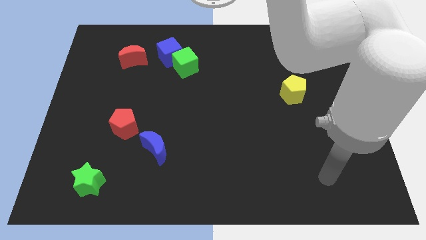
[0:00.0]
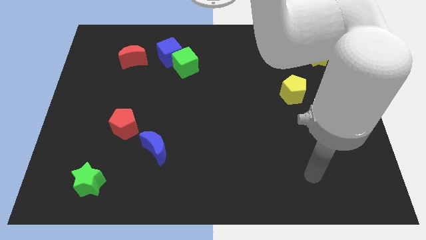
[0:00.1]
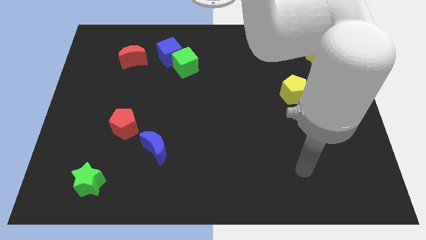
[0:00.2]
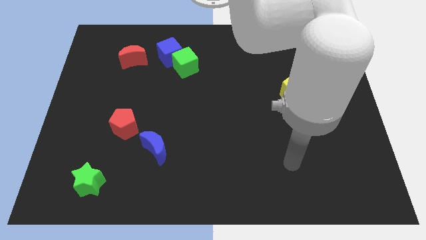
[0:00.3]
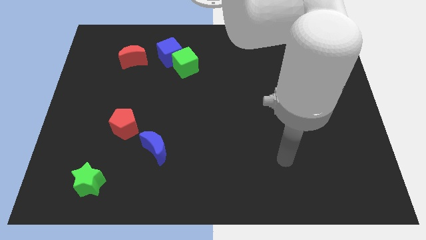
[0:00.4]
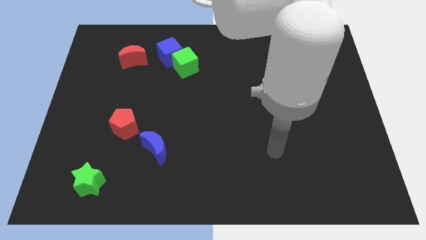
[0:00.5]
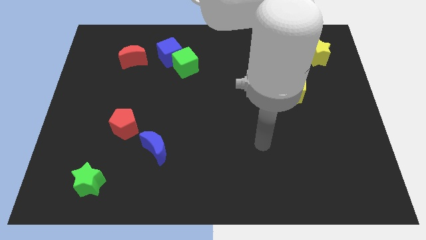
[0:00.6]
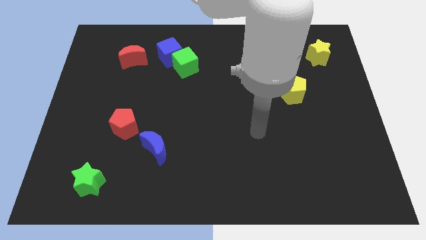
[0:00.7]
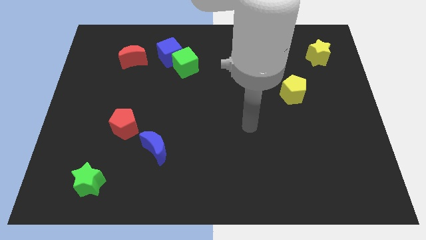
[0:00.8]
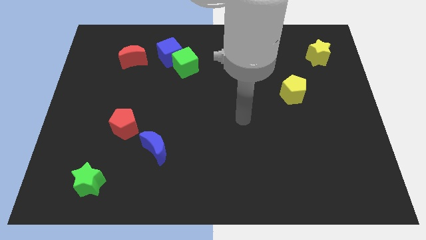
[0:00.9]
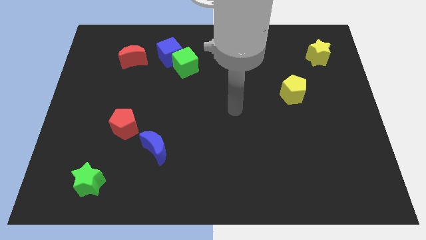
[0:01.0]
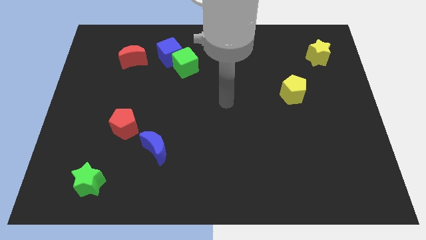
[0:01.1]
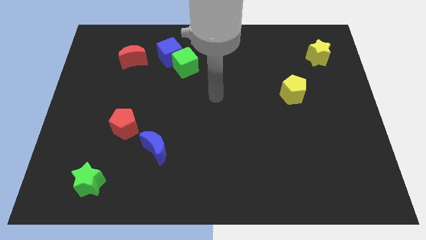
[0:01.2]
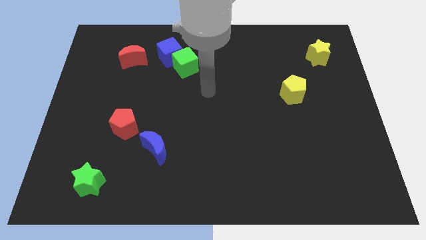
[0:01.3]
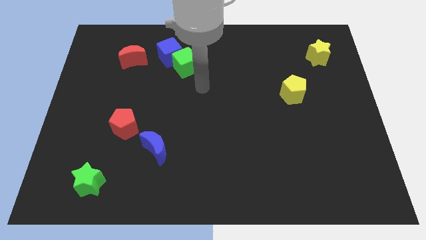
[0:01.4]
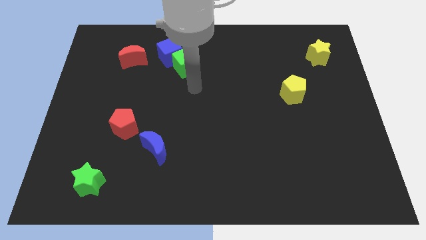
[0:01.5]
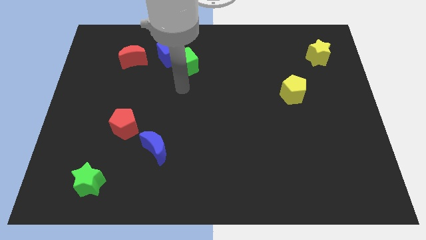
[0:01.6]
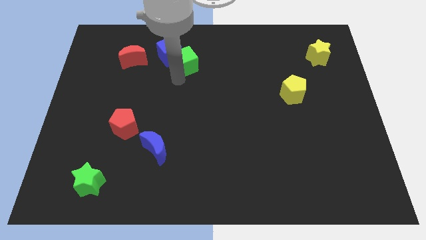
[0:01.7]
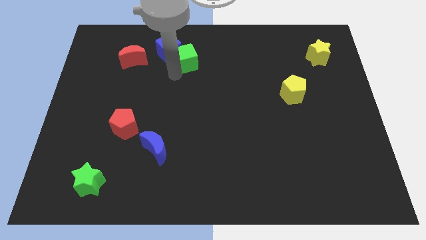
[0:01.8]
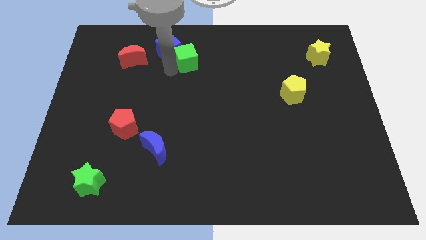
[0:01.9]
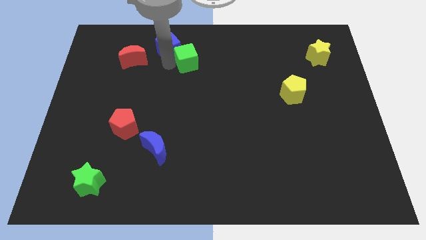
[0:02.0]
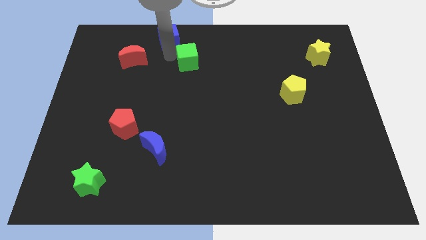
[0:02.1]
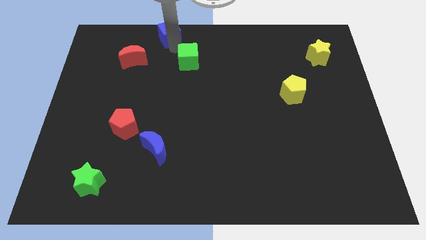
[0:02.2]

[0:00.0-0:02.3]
move the green cube away from the blue cube

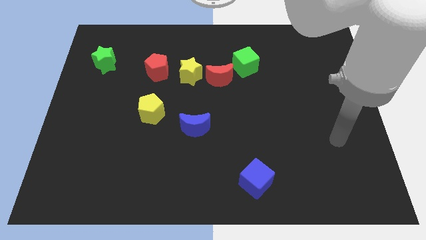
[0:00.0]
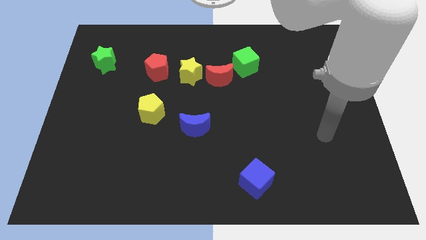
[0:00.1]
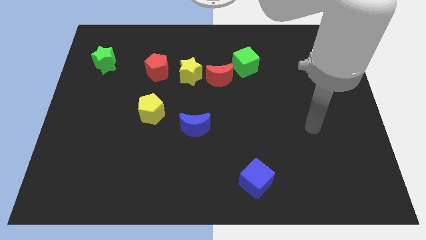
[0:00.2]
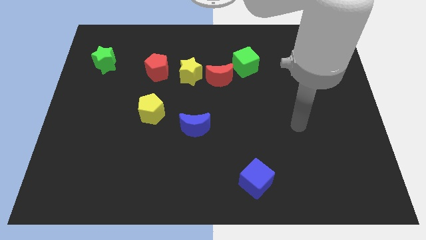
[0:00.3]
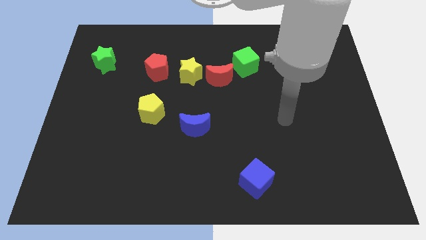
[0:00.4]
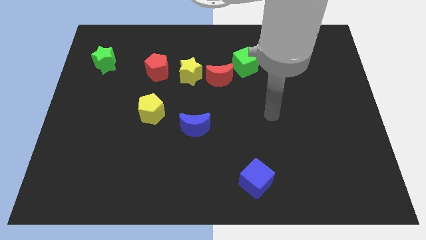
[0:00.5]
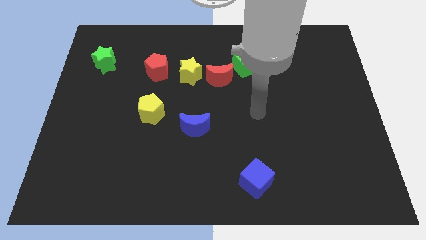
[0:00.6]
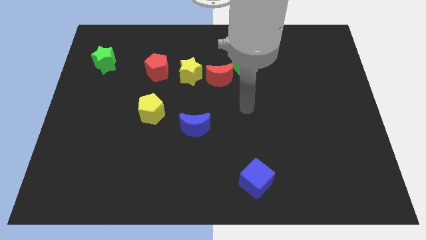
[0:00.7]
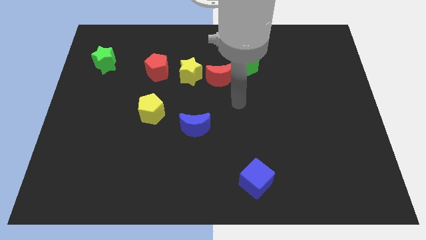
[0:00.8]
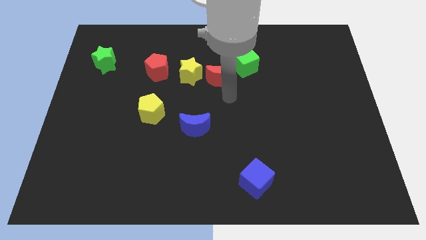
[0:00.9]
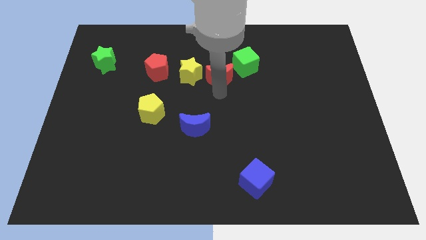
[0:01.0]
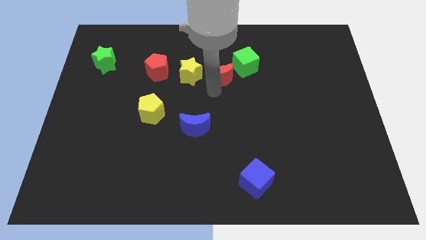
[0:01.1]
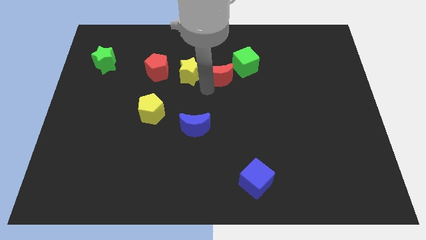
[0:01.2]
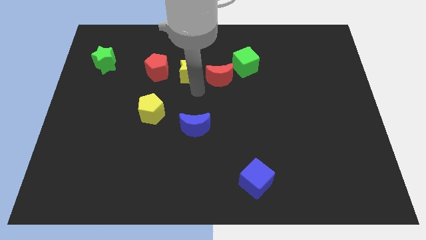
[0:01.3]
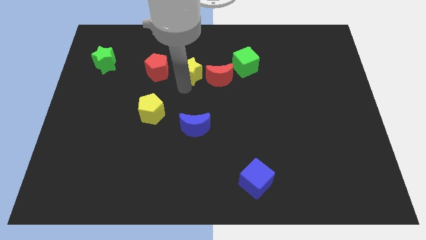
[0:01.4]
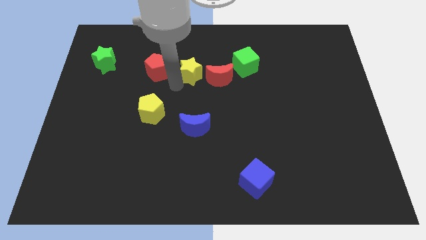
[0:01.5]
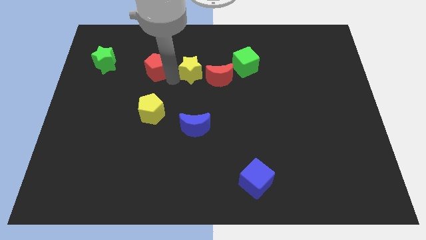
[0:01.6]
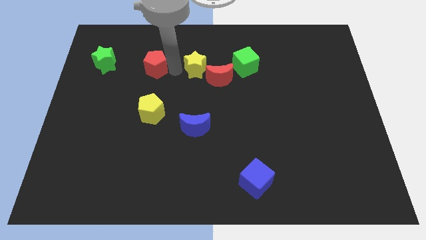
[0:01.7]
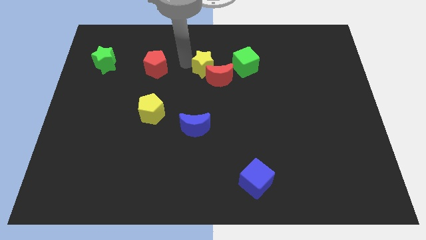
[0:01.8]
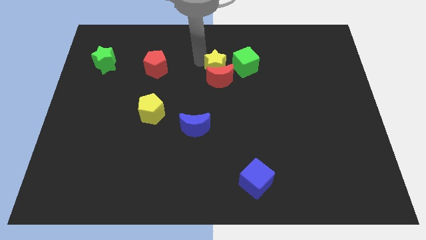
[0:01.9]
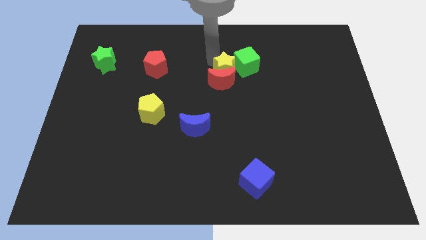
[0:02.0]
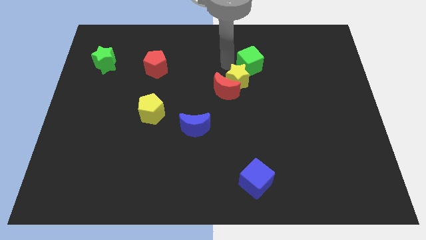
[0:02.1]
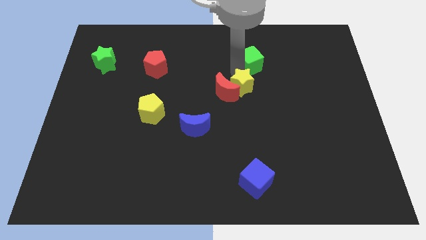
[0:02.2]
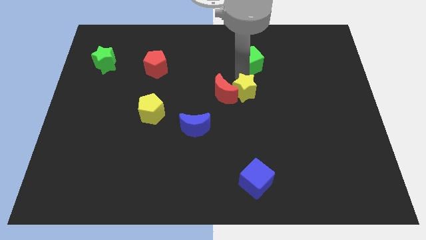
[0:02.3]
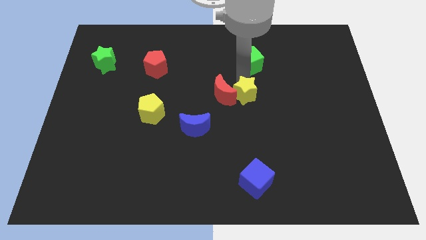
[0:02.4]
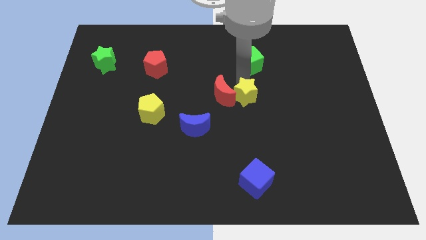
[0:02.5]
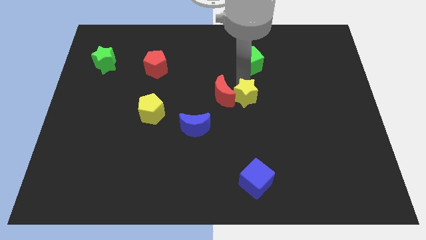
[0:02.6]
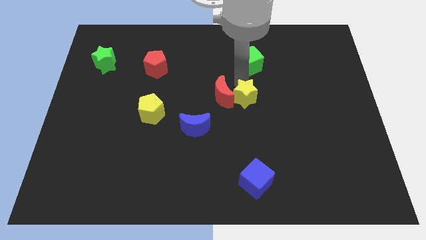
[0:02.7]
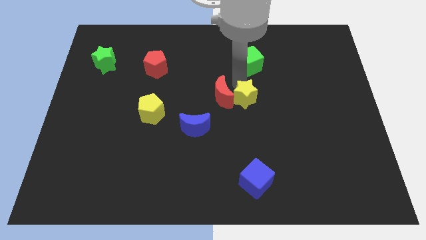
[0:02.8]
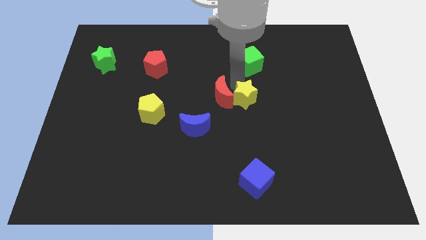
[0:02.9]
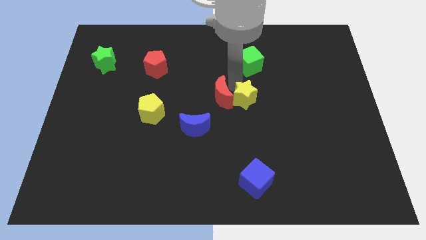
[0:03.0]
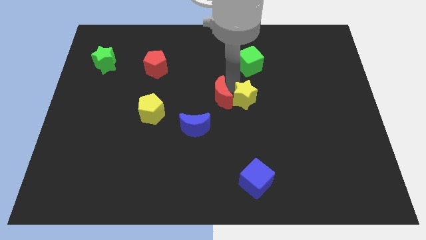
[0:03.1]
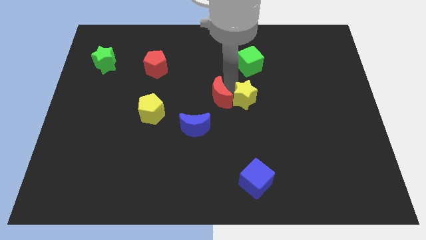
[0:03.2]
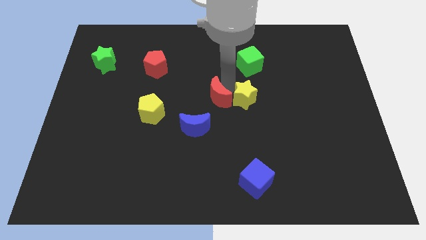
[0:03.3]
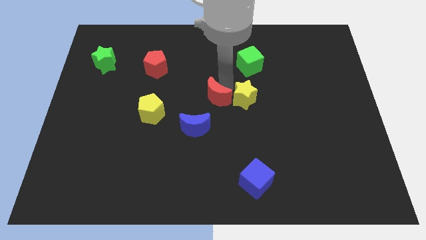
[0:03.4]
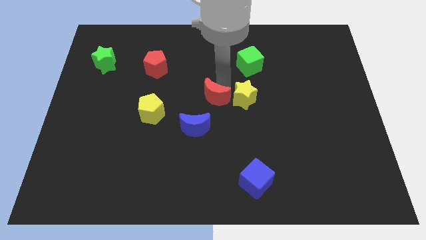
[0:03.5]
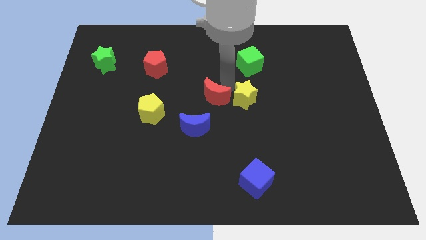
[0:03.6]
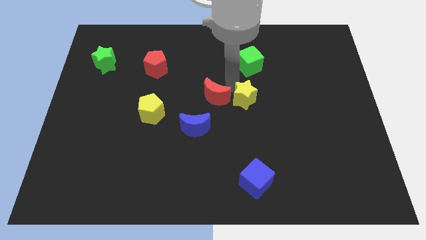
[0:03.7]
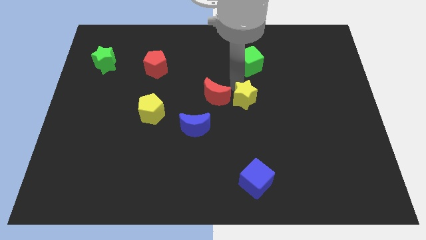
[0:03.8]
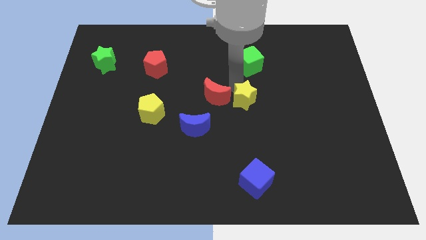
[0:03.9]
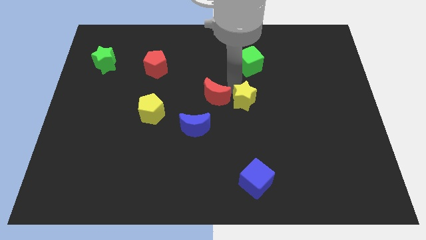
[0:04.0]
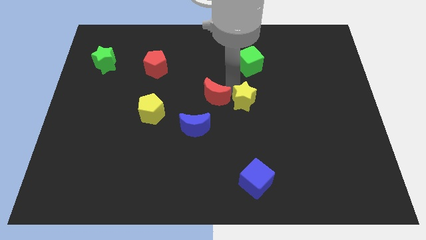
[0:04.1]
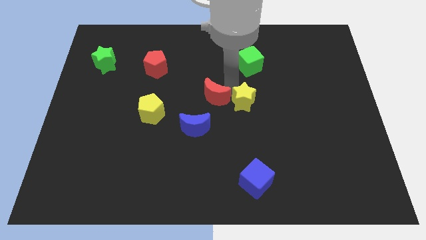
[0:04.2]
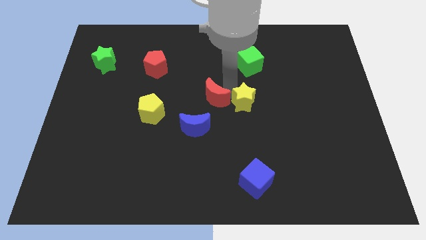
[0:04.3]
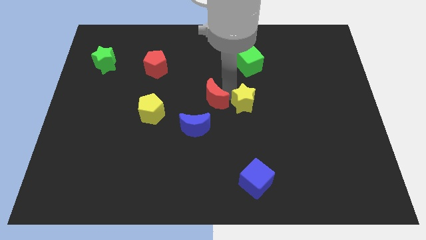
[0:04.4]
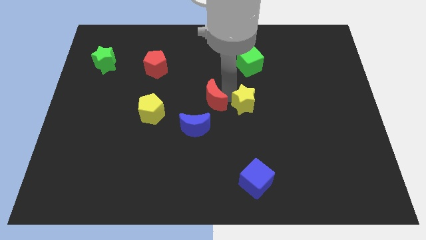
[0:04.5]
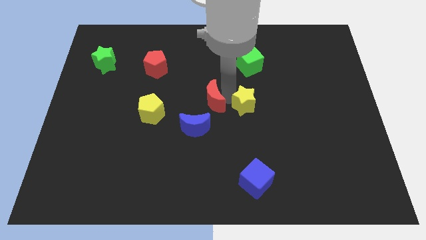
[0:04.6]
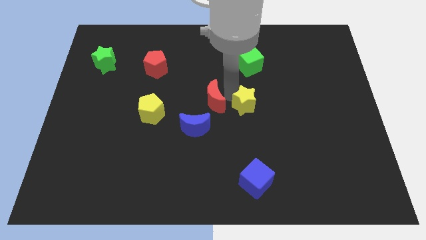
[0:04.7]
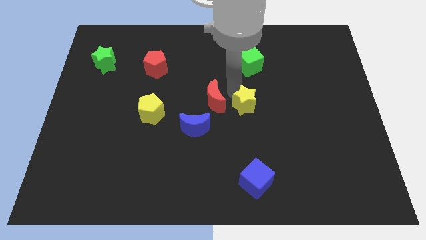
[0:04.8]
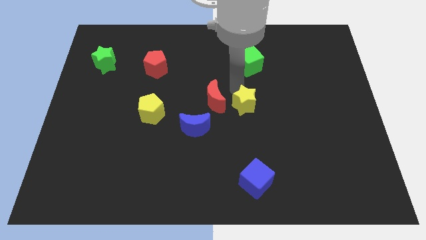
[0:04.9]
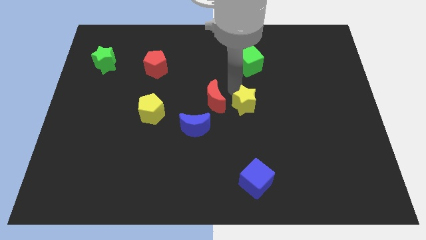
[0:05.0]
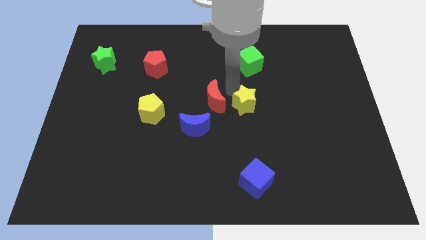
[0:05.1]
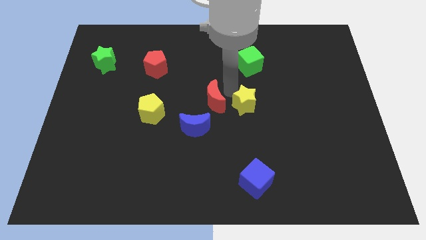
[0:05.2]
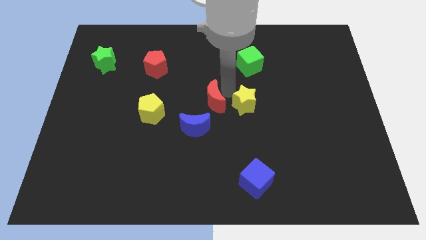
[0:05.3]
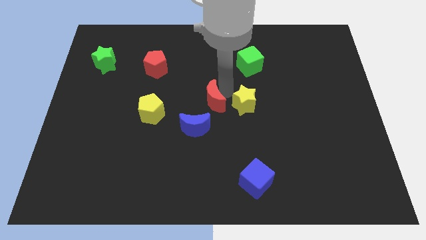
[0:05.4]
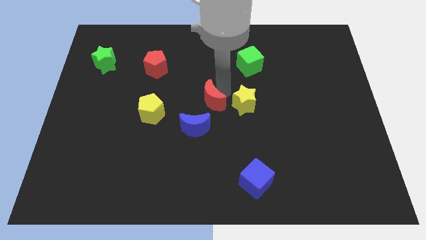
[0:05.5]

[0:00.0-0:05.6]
move the red moon away from the yellow star and green cube

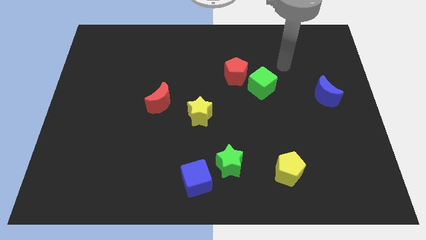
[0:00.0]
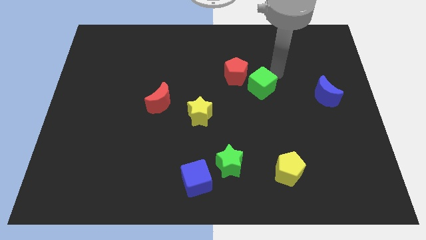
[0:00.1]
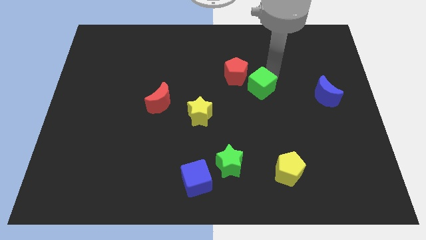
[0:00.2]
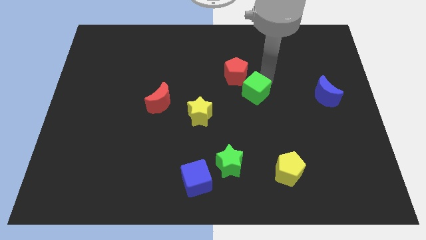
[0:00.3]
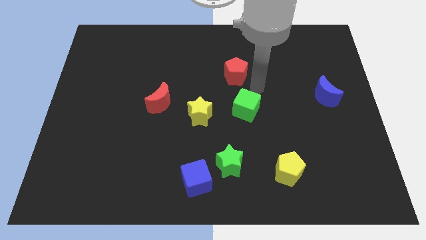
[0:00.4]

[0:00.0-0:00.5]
move the red pentagon away from the green cube

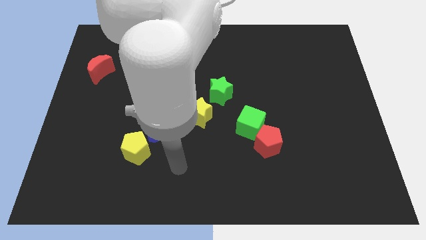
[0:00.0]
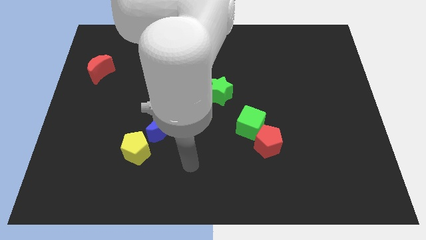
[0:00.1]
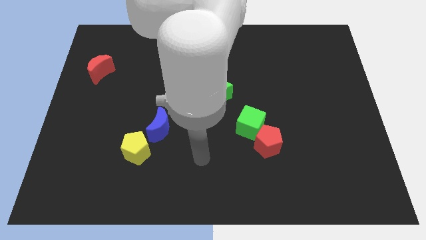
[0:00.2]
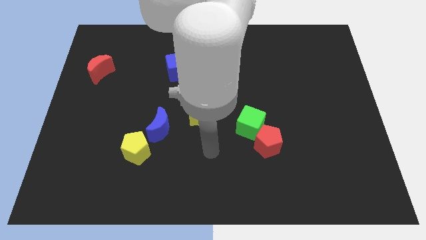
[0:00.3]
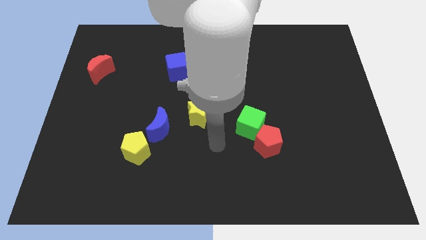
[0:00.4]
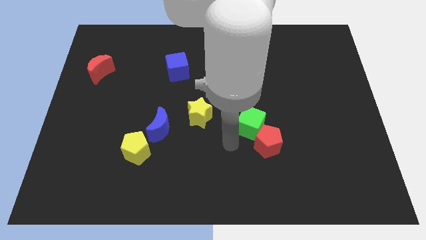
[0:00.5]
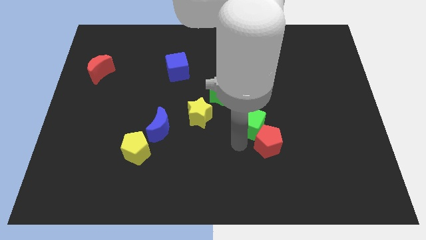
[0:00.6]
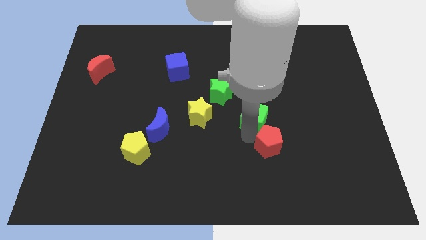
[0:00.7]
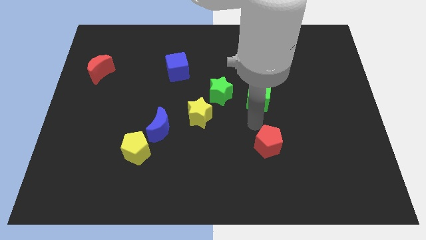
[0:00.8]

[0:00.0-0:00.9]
pull the red pentagon apart from the green cube

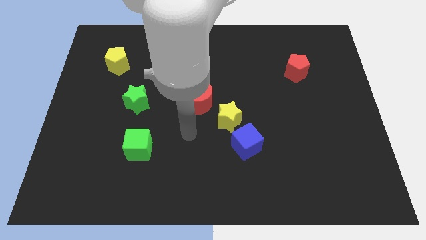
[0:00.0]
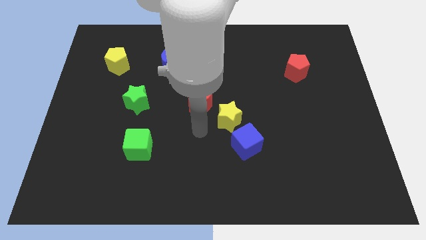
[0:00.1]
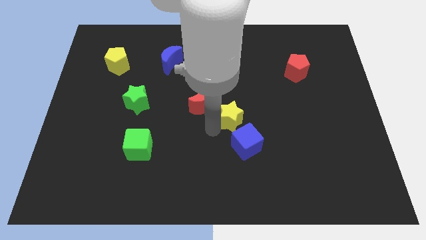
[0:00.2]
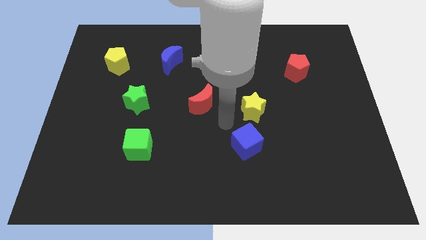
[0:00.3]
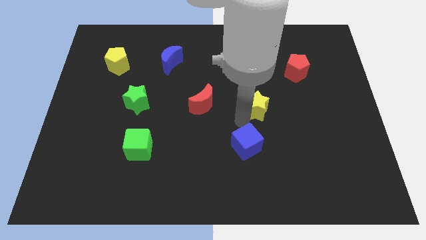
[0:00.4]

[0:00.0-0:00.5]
move the blue cube away from the yellow star
